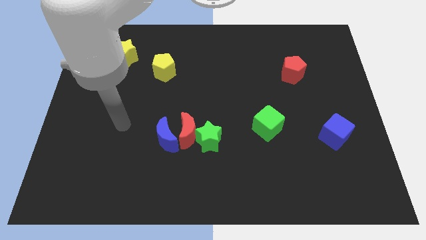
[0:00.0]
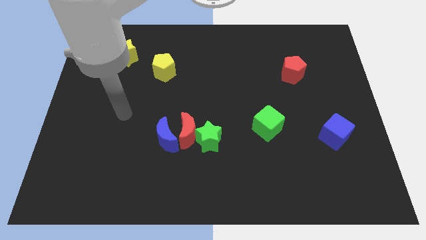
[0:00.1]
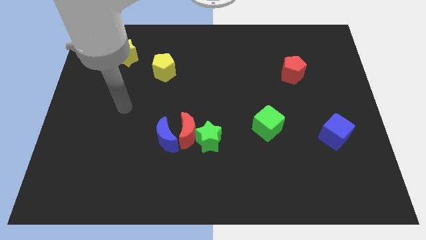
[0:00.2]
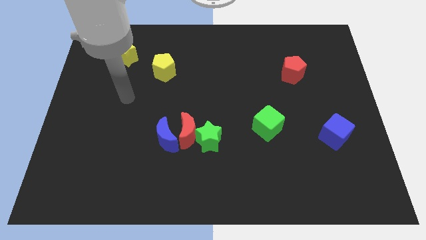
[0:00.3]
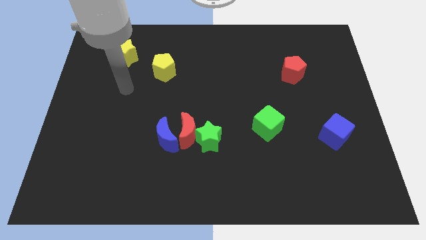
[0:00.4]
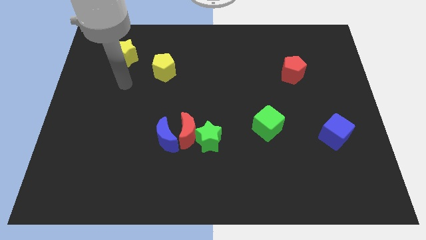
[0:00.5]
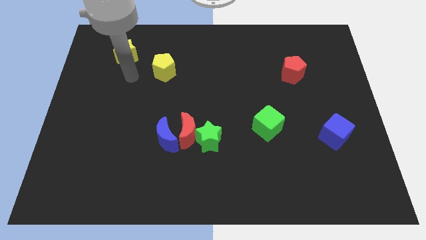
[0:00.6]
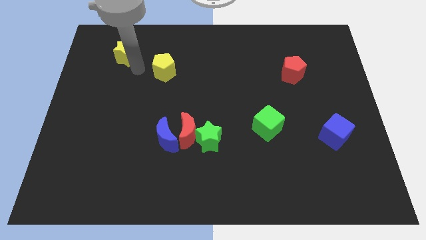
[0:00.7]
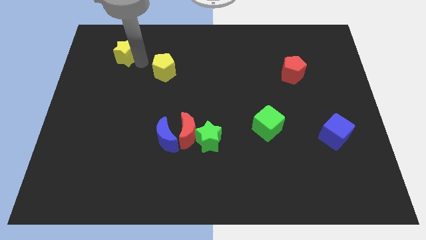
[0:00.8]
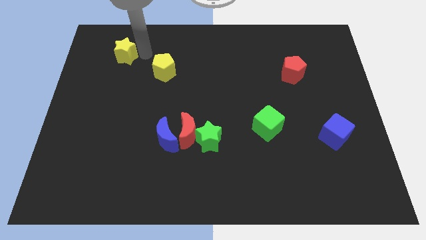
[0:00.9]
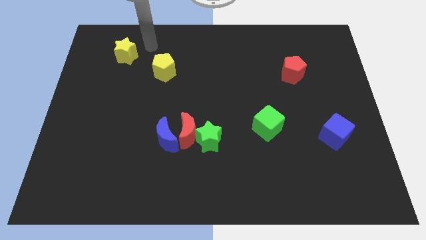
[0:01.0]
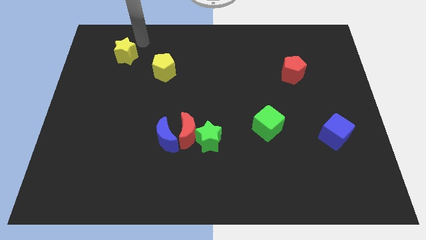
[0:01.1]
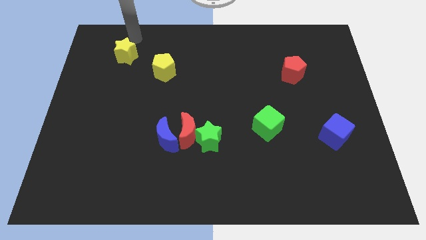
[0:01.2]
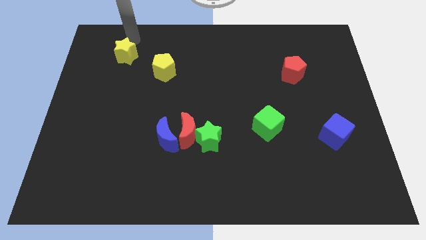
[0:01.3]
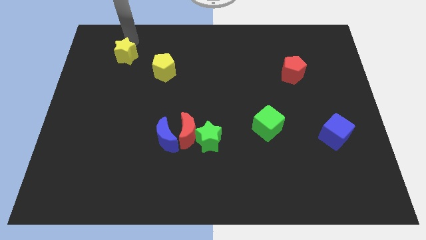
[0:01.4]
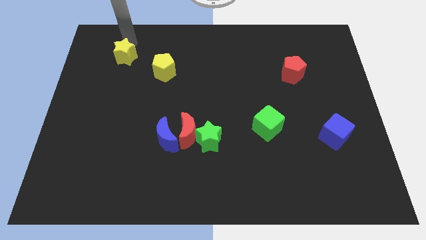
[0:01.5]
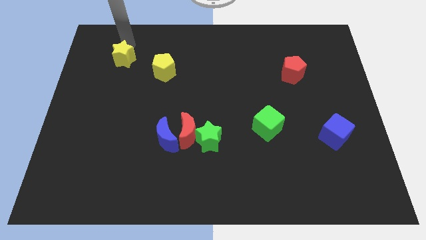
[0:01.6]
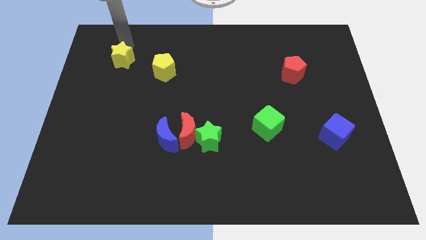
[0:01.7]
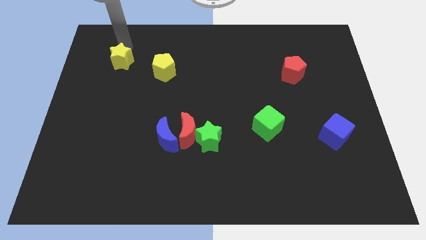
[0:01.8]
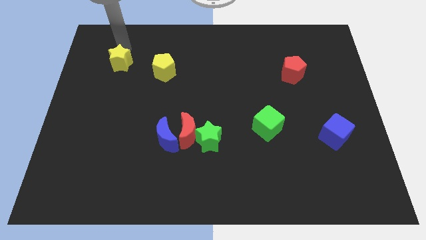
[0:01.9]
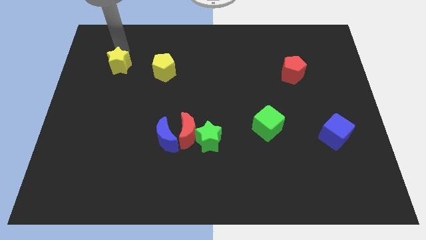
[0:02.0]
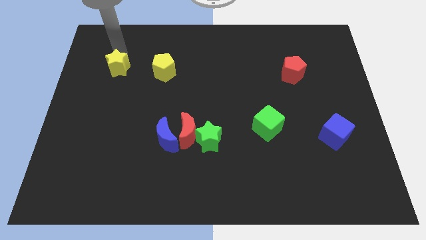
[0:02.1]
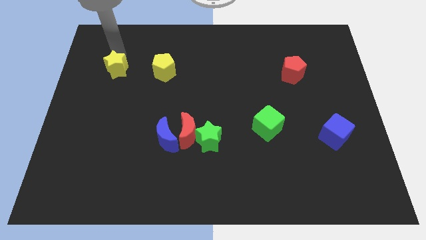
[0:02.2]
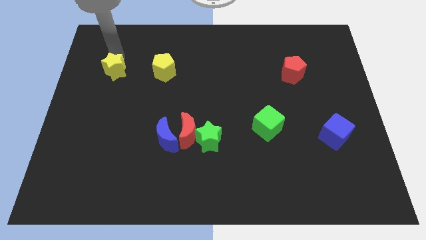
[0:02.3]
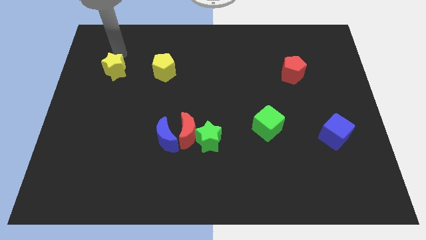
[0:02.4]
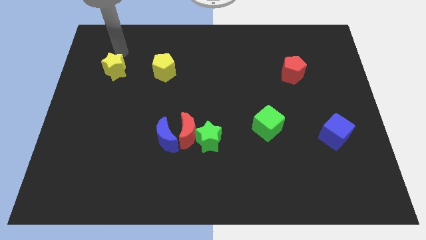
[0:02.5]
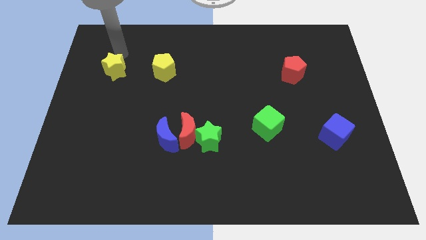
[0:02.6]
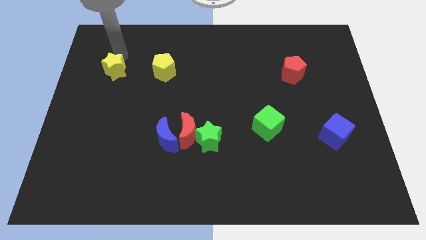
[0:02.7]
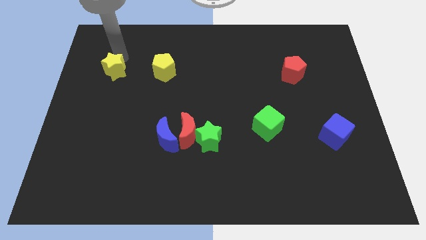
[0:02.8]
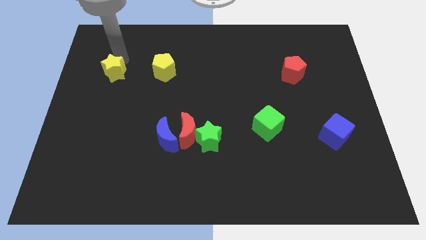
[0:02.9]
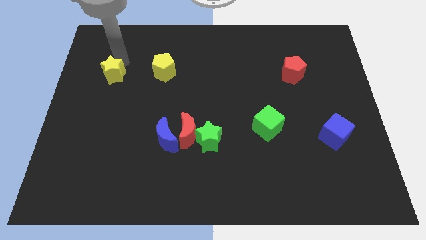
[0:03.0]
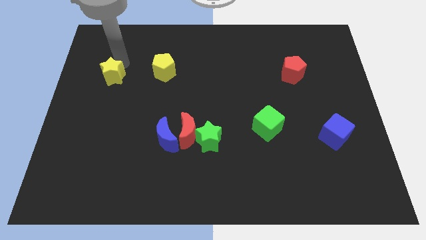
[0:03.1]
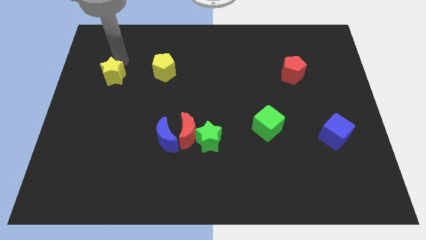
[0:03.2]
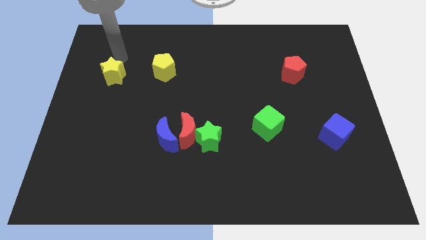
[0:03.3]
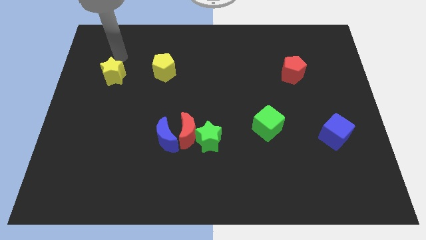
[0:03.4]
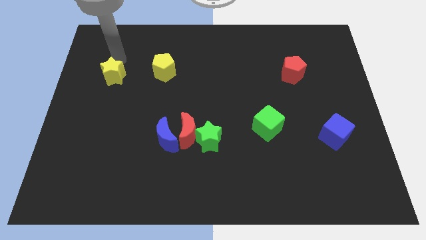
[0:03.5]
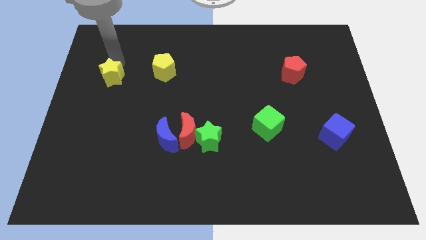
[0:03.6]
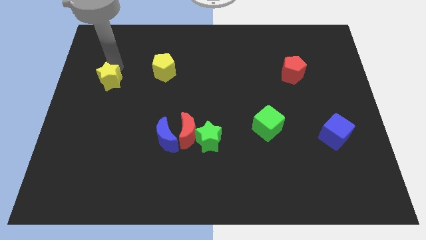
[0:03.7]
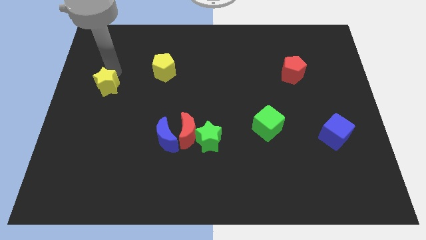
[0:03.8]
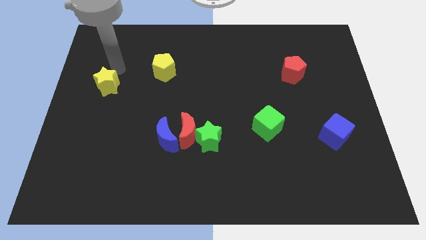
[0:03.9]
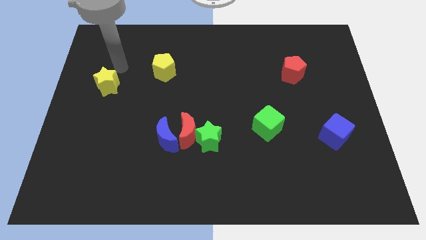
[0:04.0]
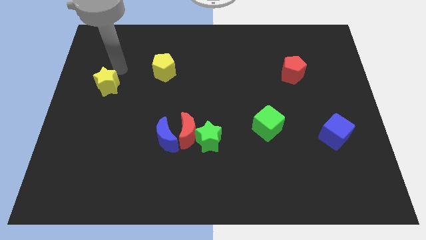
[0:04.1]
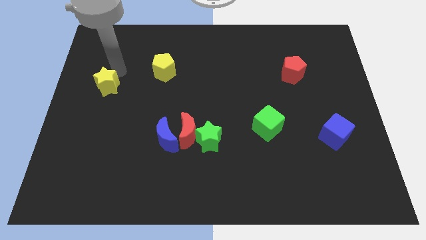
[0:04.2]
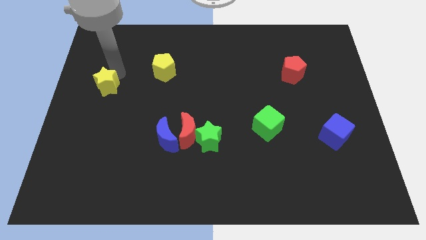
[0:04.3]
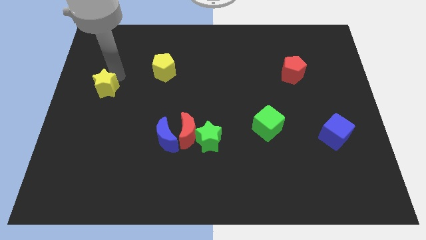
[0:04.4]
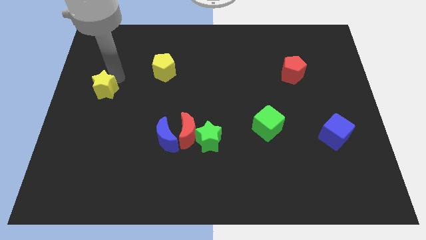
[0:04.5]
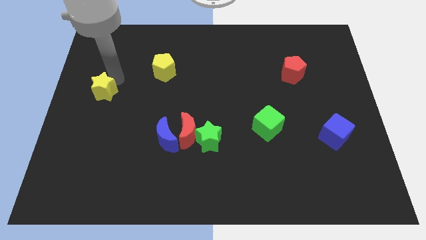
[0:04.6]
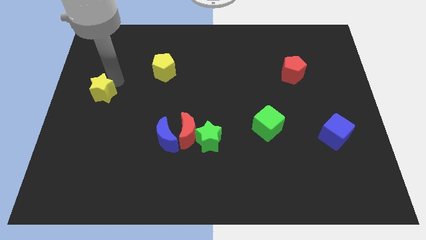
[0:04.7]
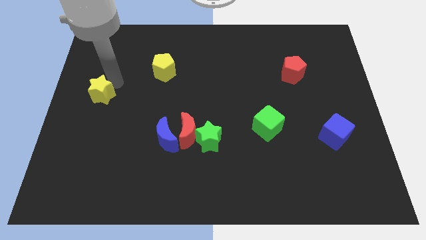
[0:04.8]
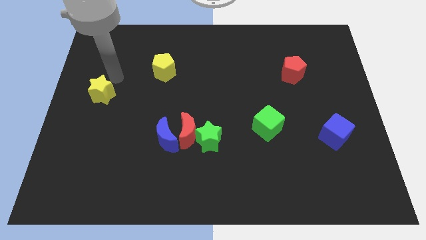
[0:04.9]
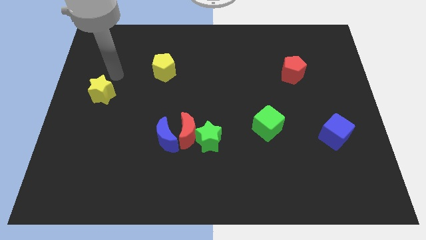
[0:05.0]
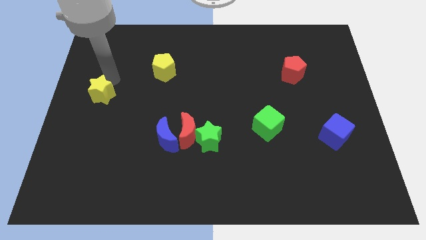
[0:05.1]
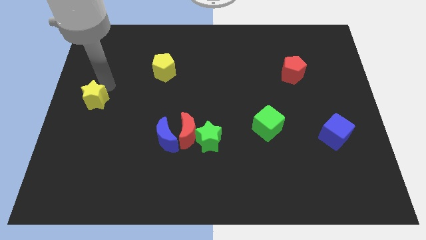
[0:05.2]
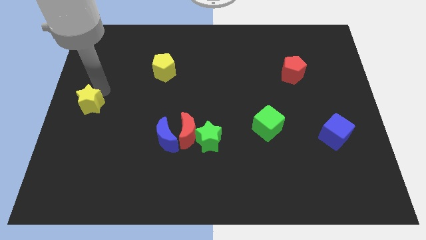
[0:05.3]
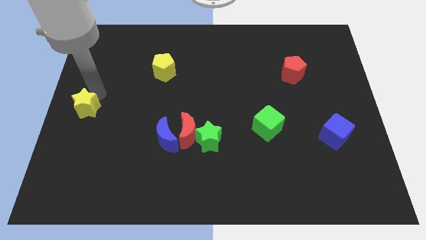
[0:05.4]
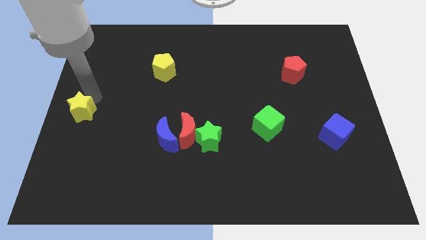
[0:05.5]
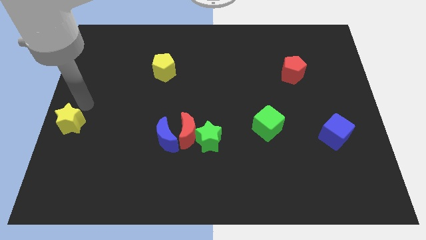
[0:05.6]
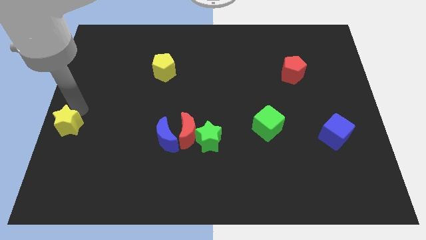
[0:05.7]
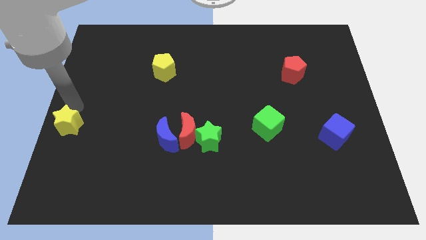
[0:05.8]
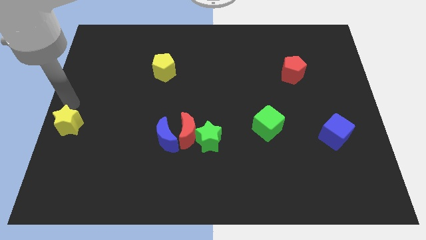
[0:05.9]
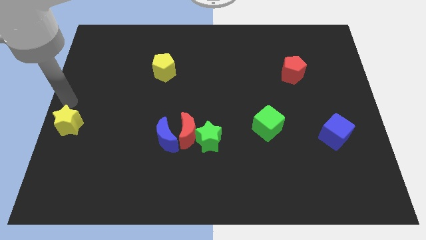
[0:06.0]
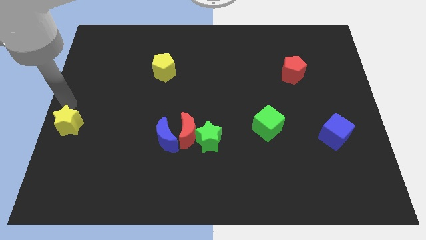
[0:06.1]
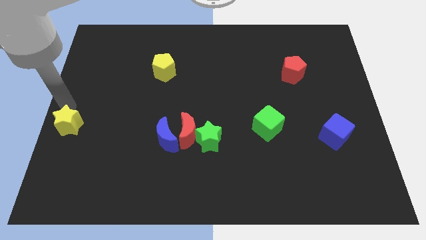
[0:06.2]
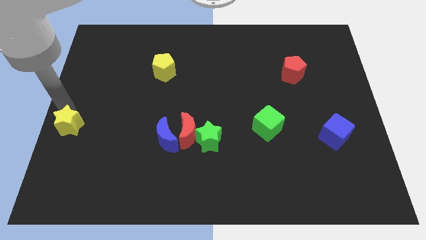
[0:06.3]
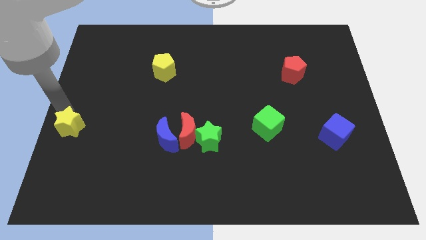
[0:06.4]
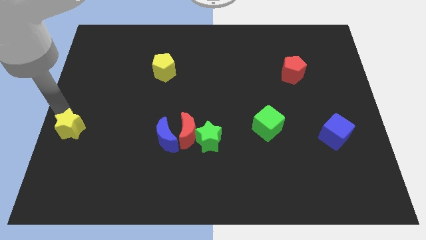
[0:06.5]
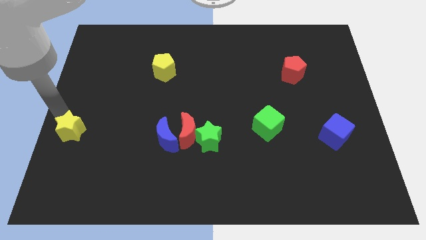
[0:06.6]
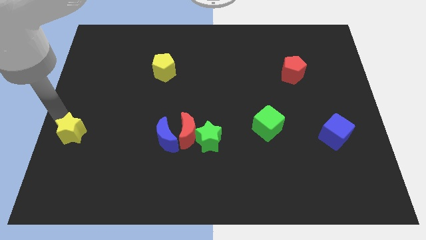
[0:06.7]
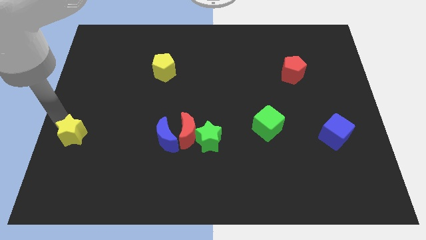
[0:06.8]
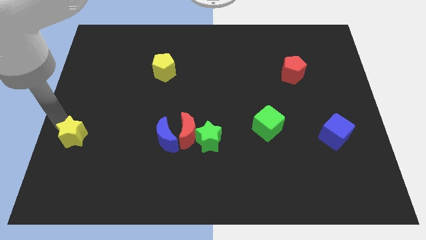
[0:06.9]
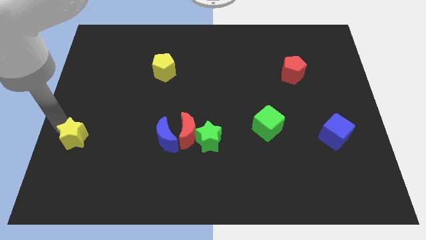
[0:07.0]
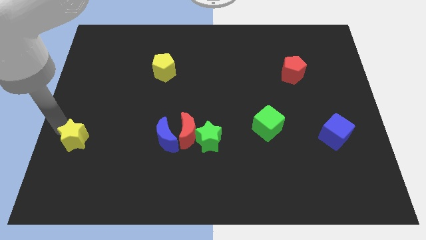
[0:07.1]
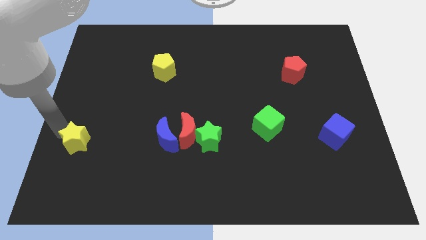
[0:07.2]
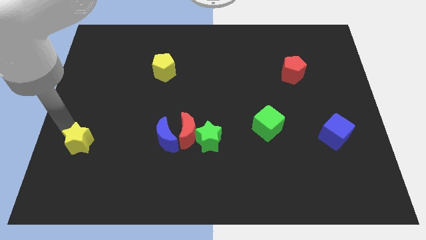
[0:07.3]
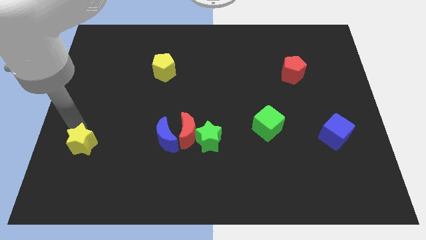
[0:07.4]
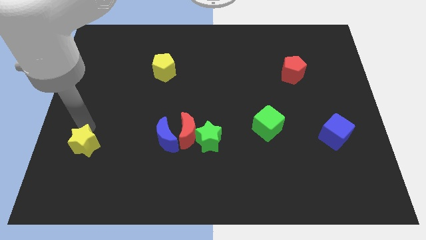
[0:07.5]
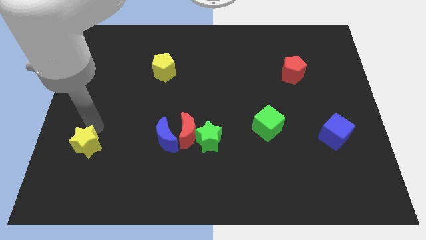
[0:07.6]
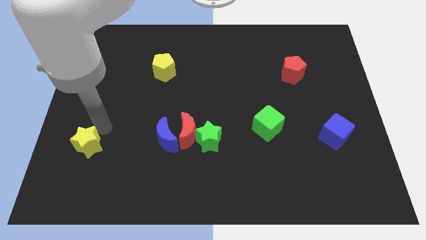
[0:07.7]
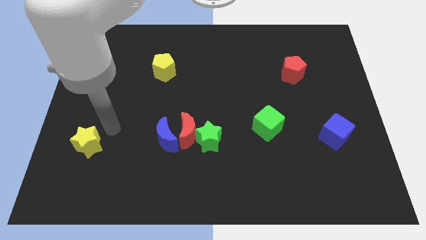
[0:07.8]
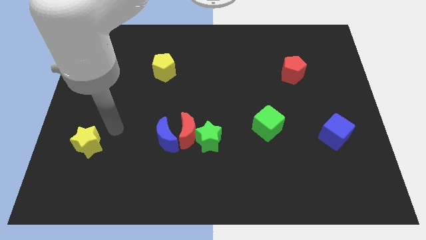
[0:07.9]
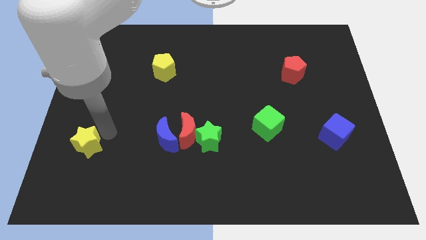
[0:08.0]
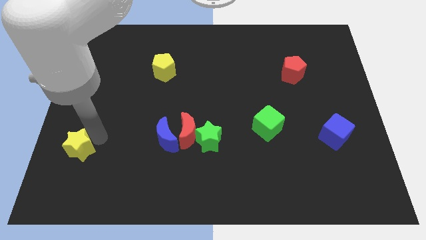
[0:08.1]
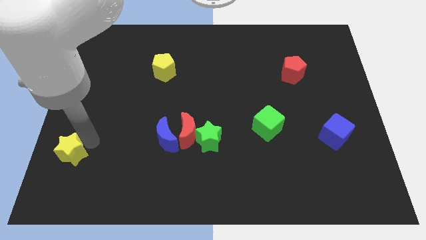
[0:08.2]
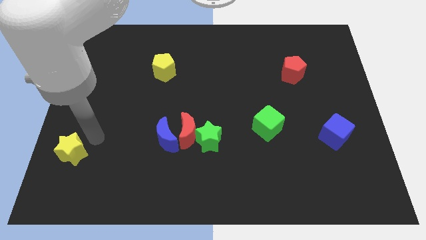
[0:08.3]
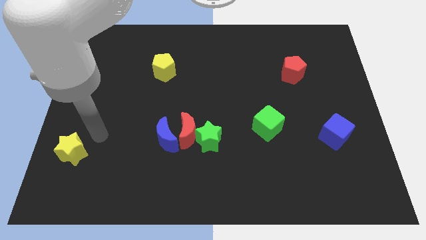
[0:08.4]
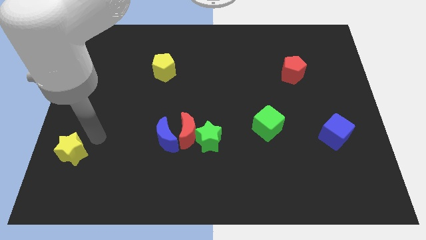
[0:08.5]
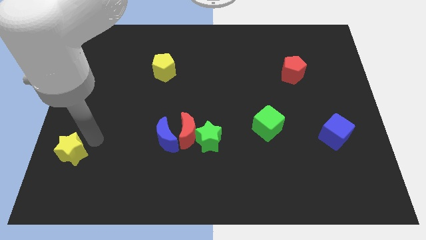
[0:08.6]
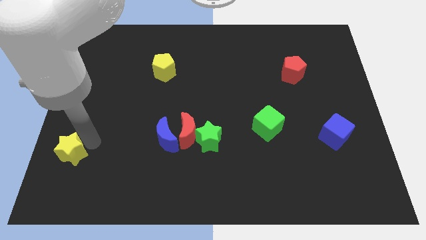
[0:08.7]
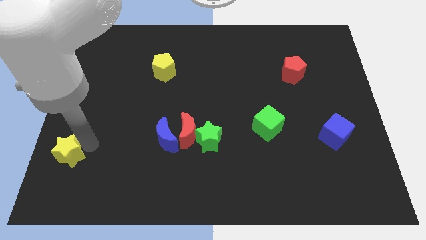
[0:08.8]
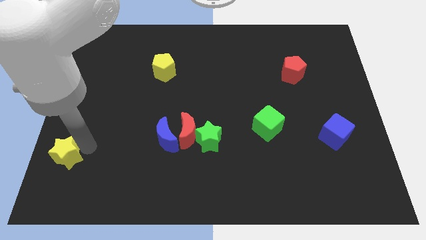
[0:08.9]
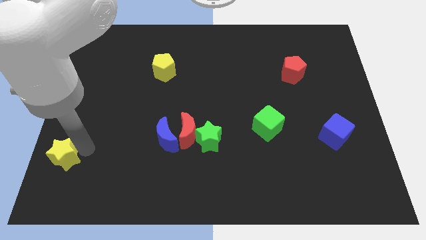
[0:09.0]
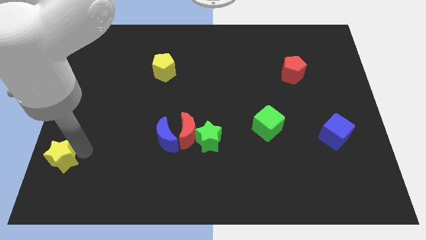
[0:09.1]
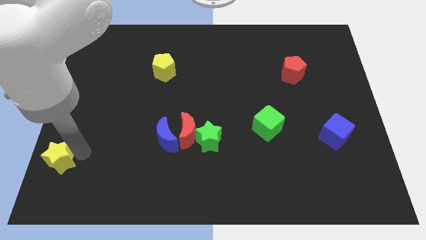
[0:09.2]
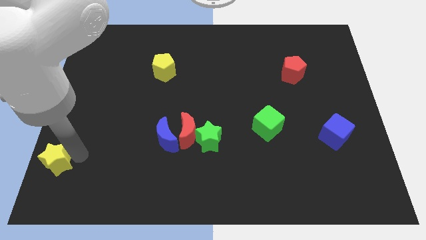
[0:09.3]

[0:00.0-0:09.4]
slide the yellow star to the bottom left corner
